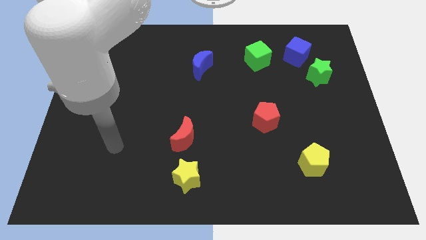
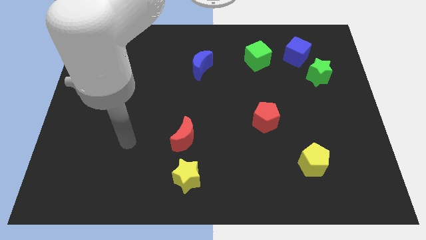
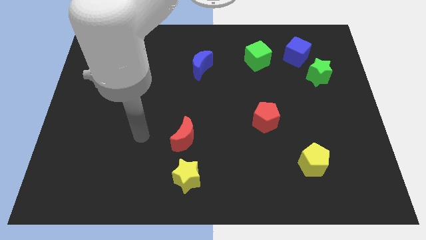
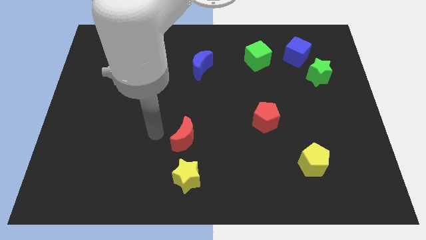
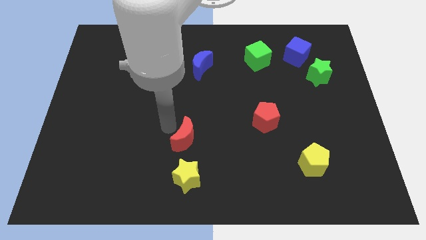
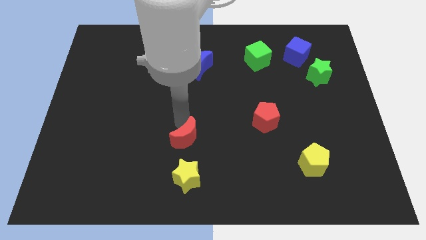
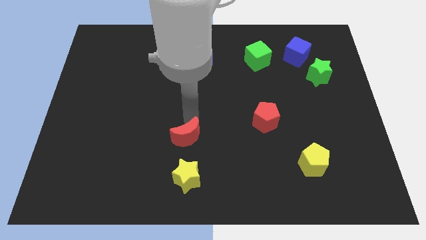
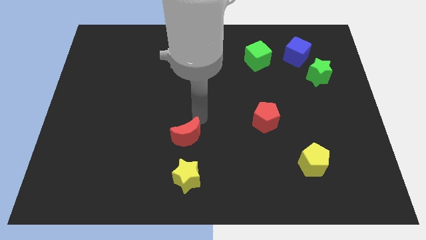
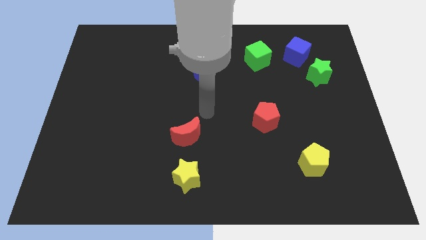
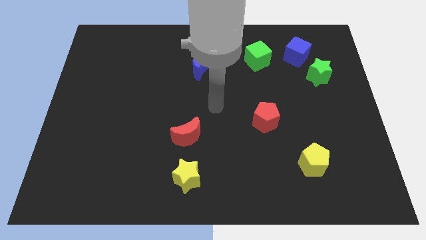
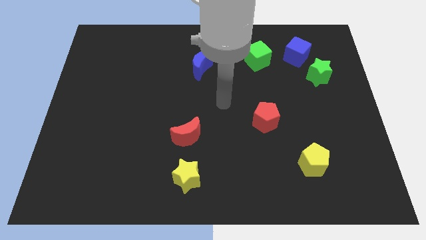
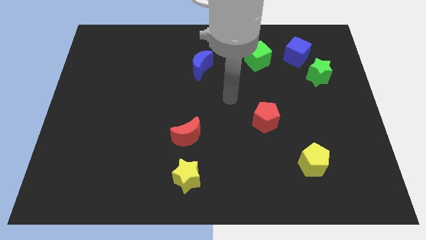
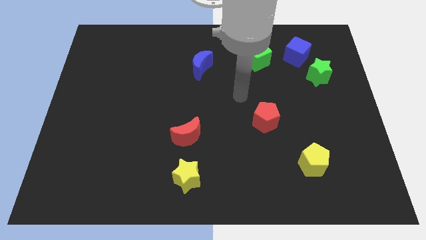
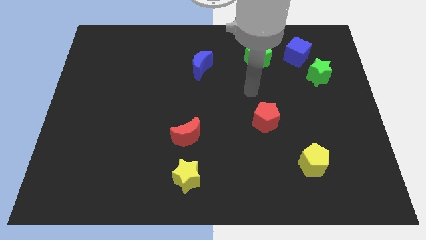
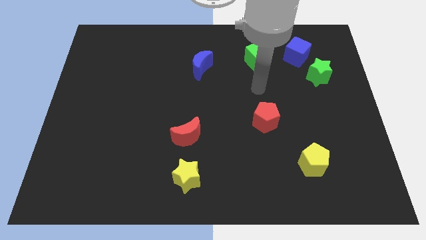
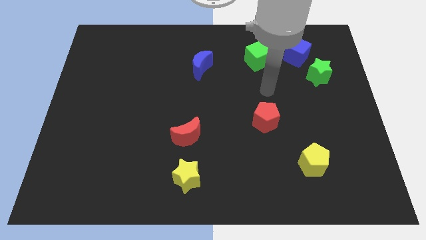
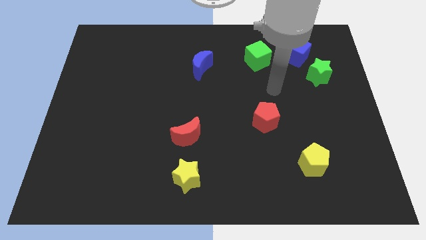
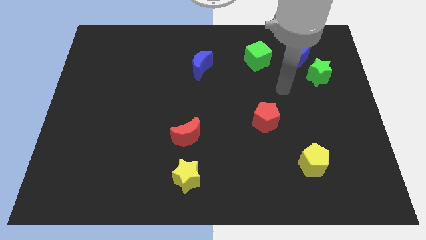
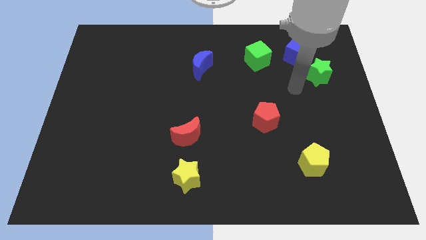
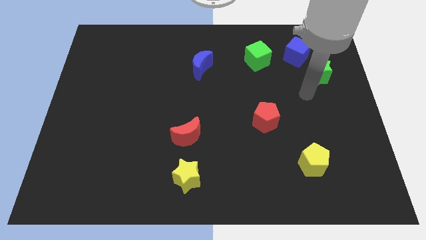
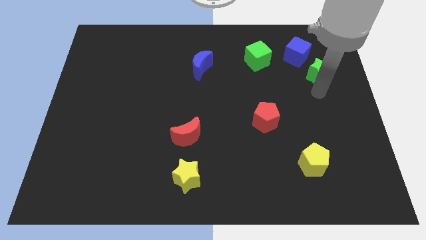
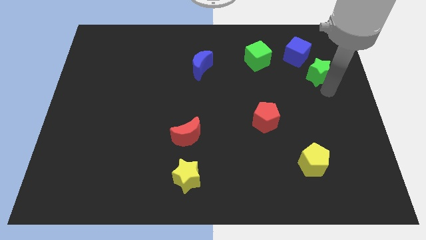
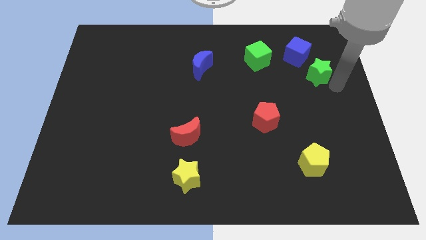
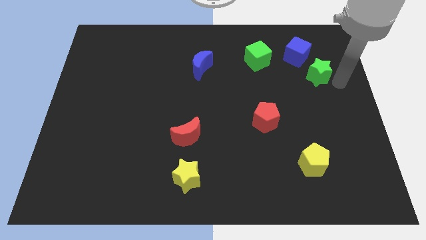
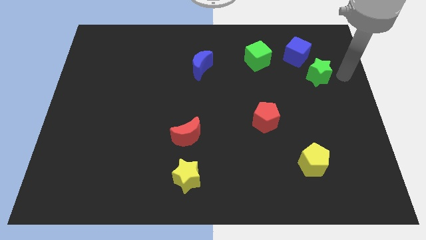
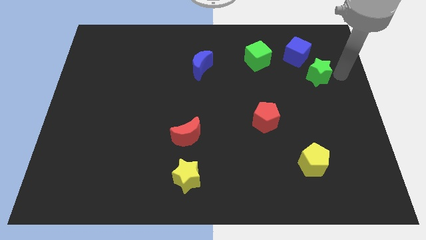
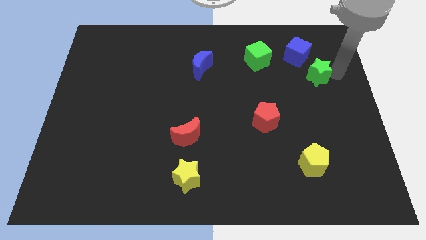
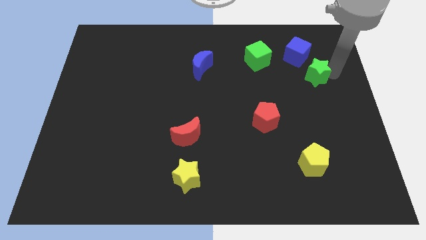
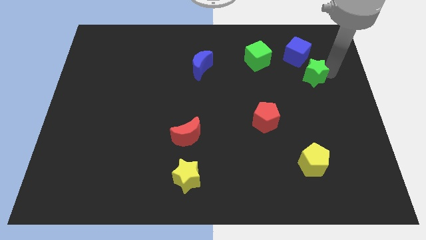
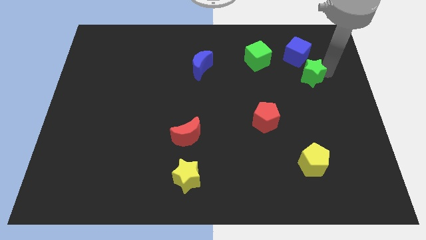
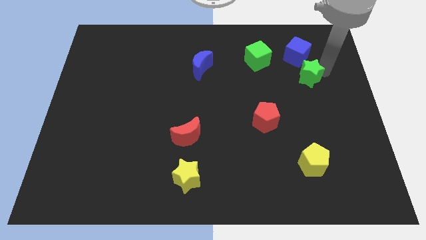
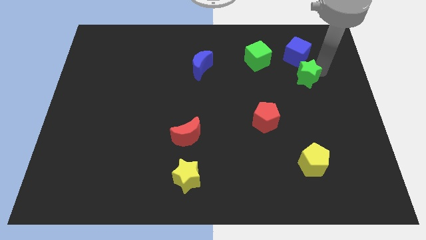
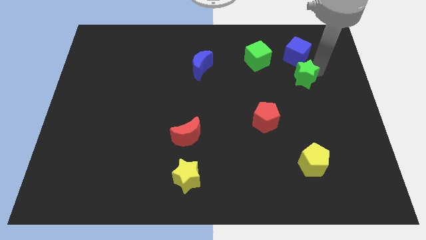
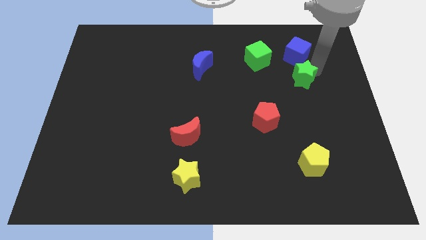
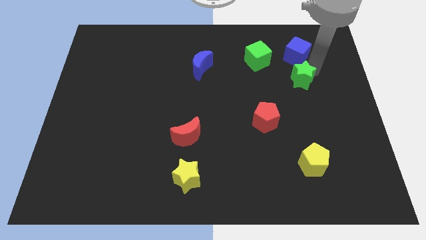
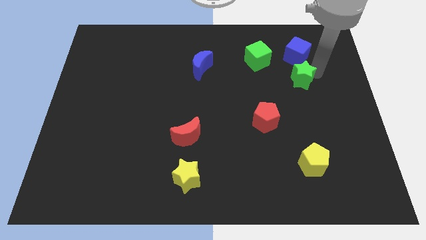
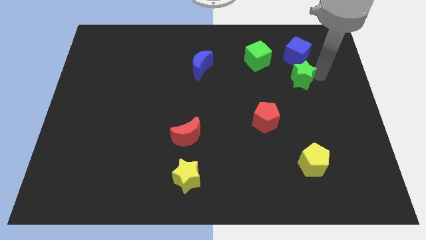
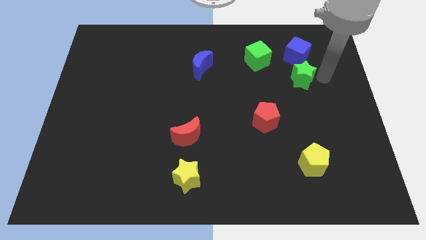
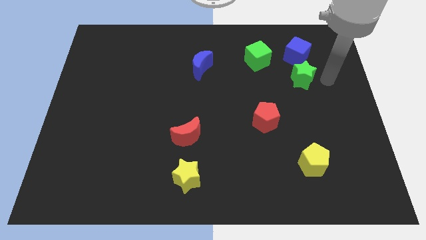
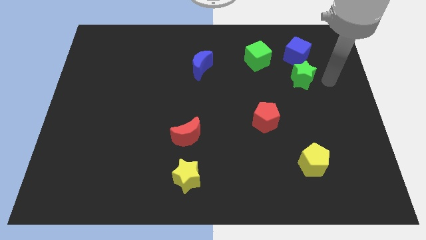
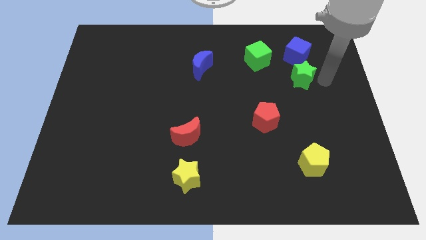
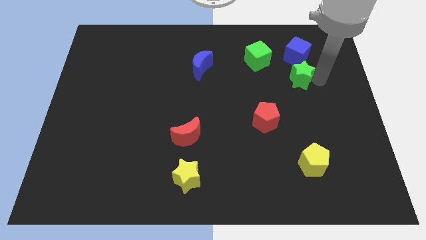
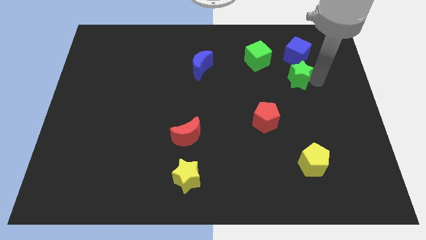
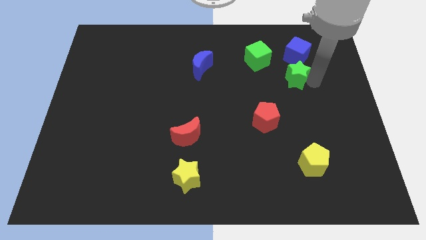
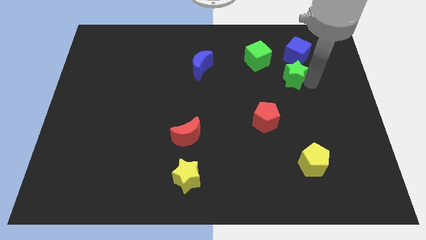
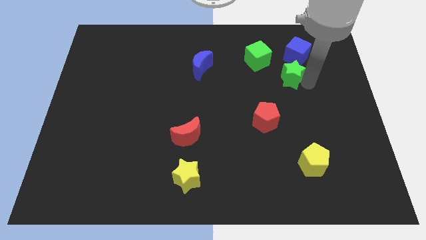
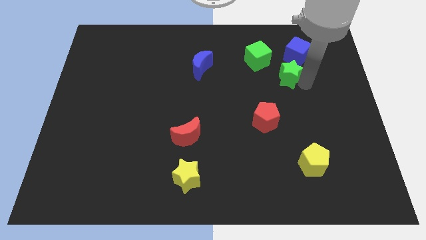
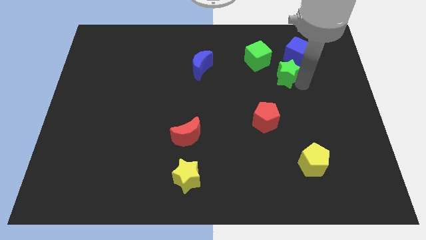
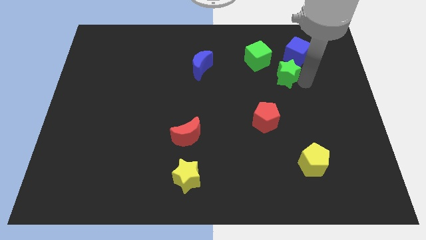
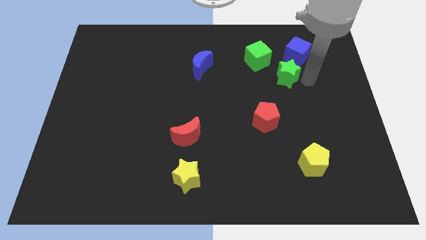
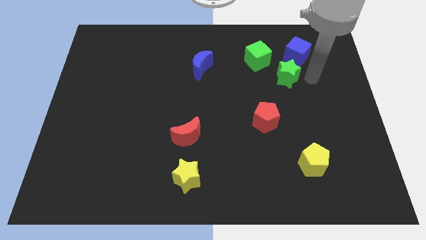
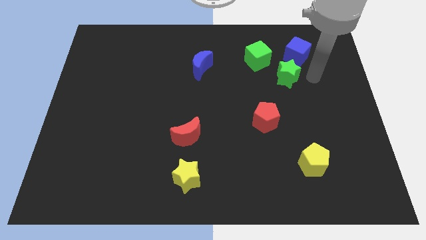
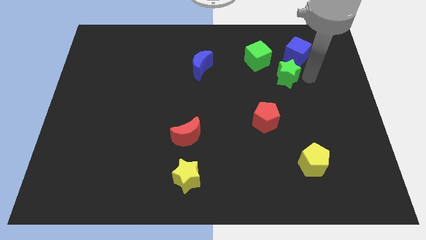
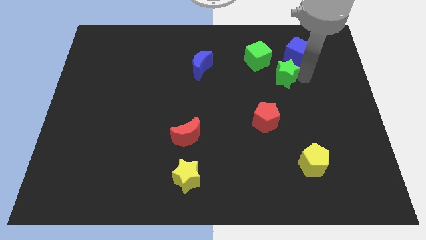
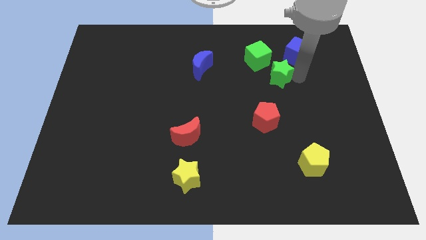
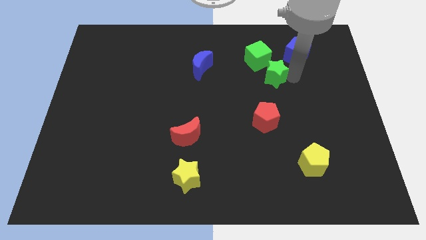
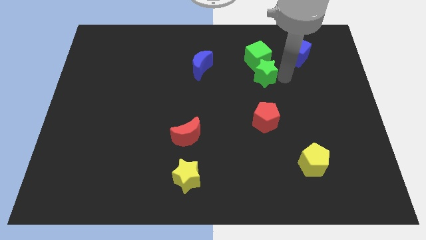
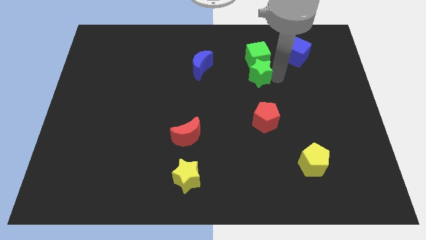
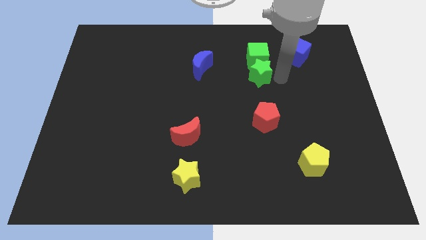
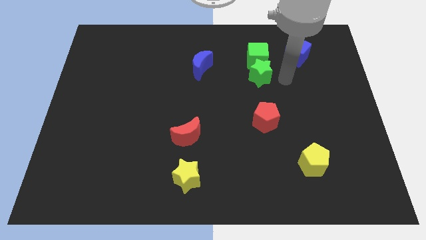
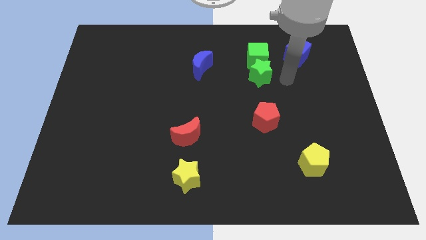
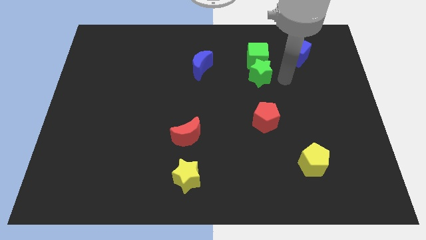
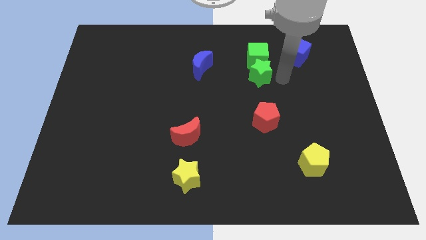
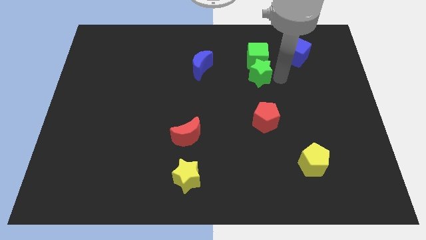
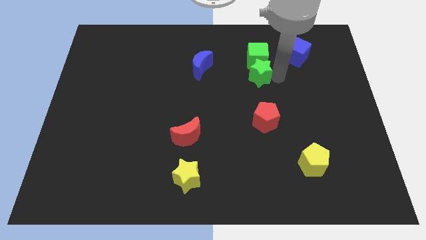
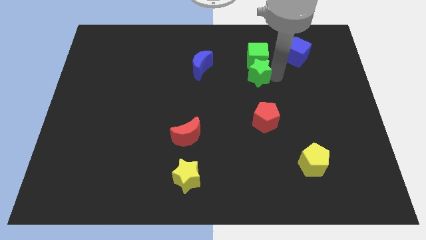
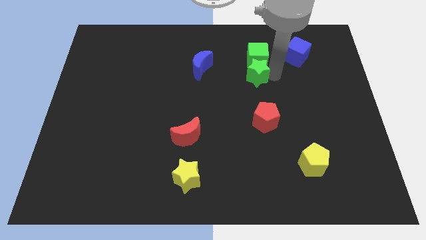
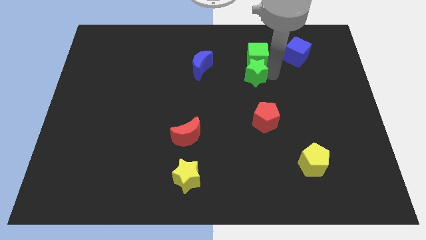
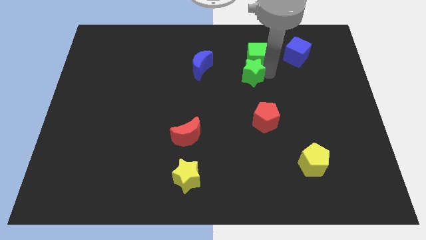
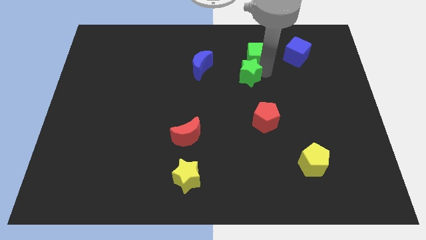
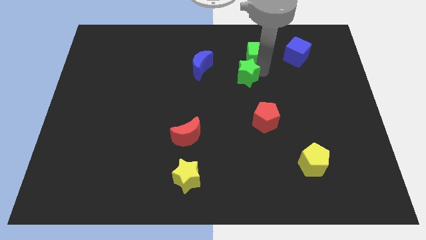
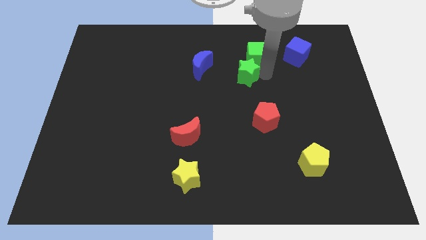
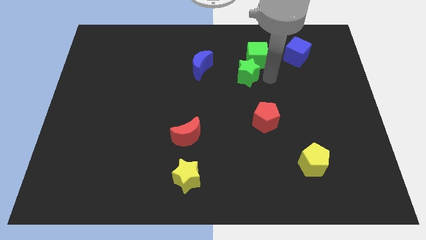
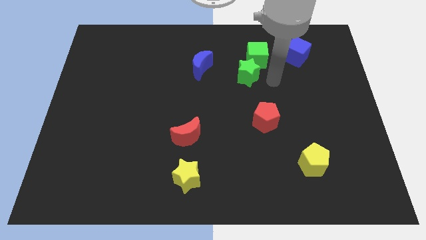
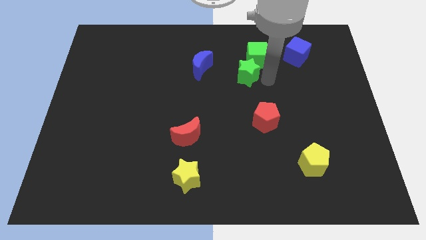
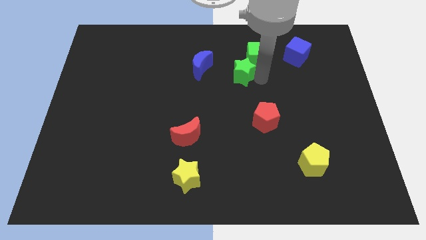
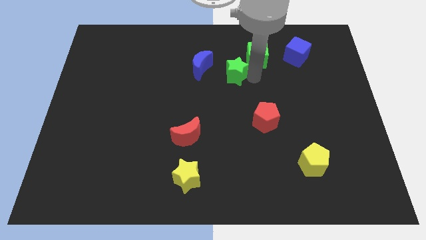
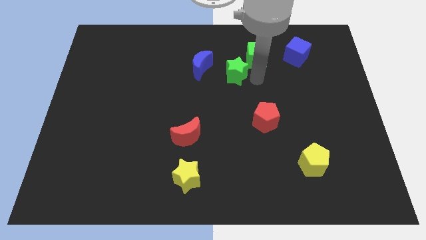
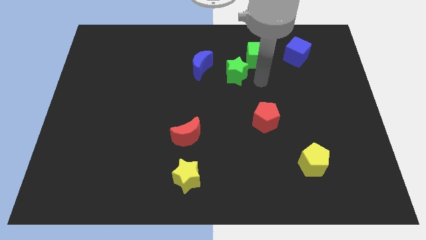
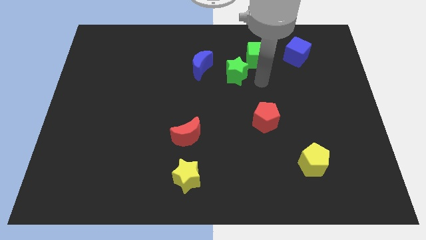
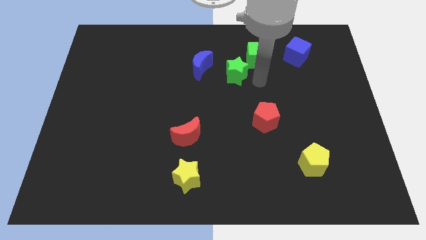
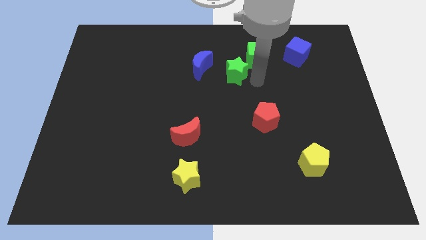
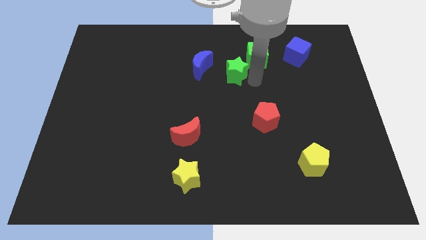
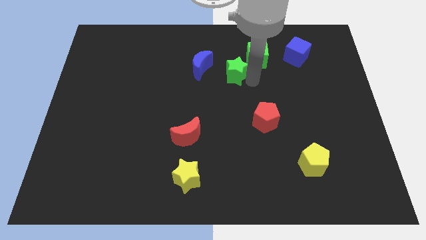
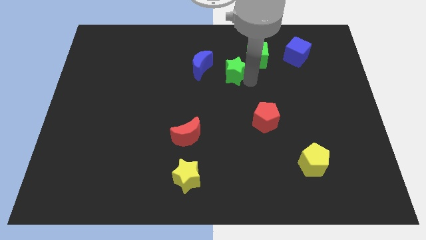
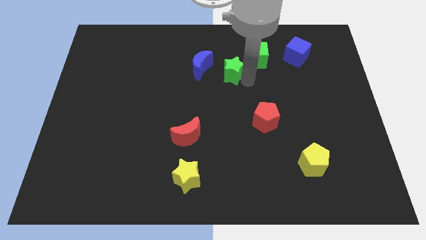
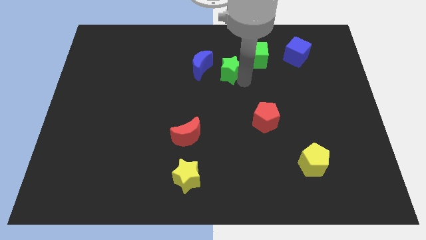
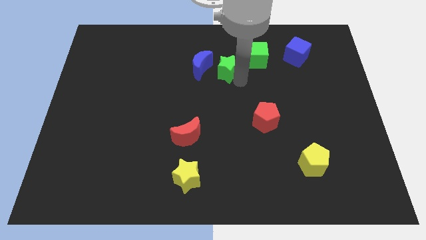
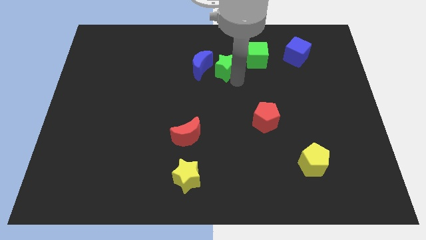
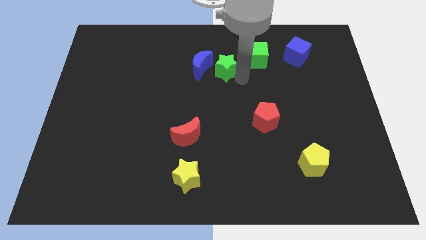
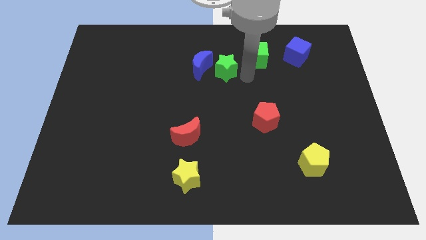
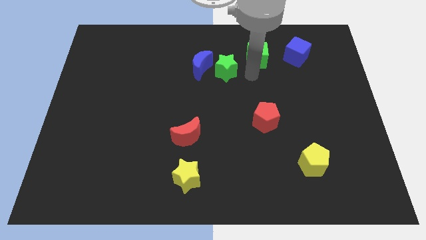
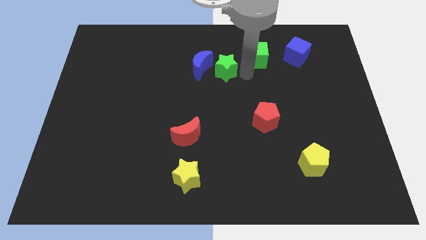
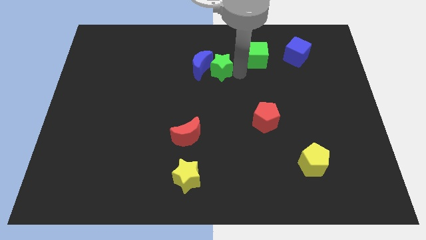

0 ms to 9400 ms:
put the green star towards the blue moon
